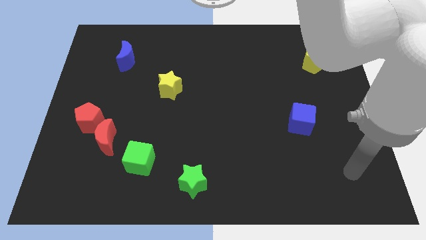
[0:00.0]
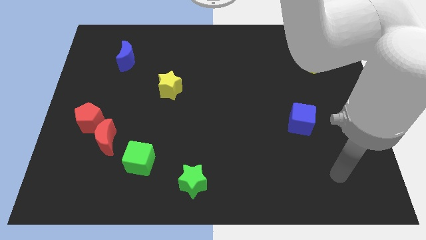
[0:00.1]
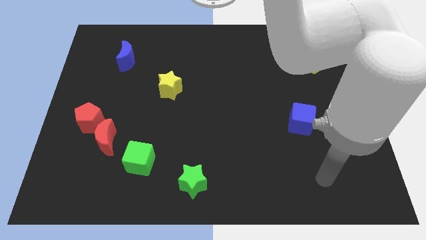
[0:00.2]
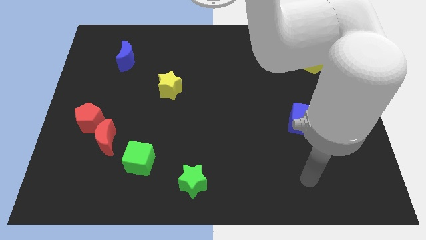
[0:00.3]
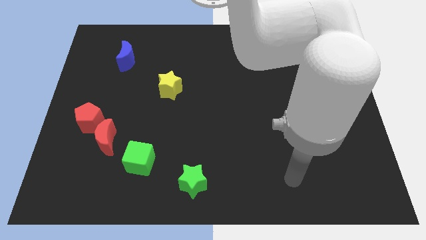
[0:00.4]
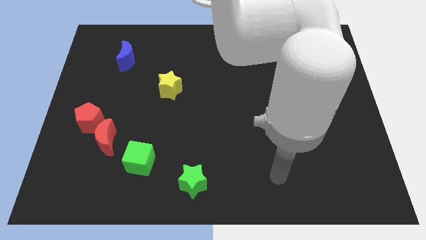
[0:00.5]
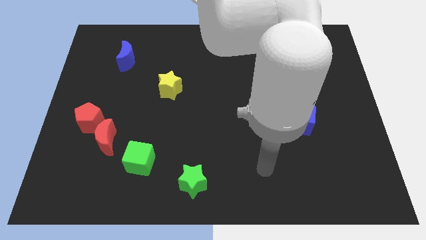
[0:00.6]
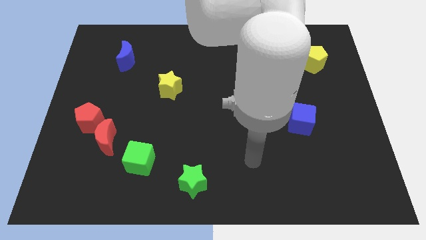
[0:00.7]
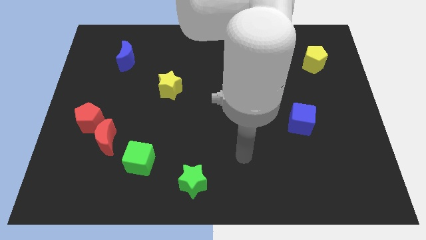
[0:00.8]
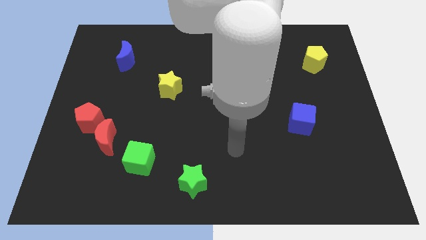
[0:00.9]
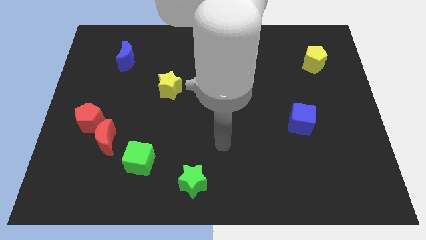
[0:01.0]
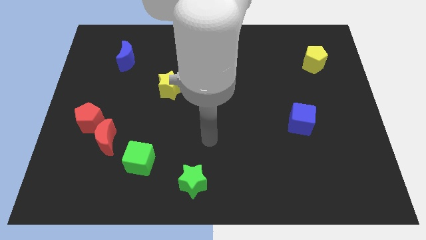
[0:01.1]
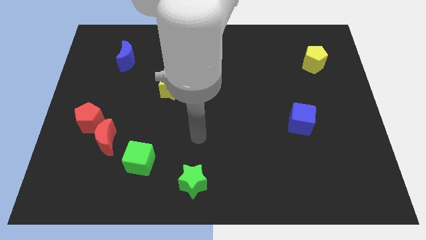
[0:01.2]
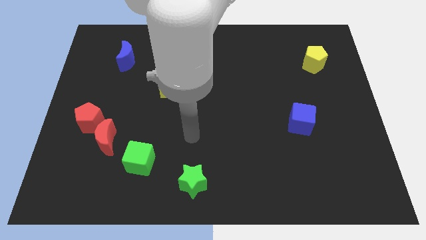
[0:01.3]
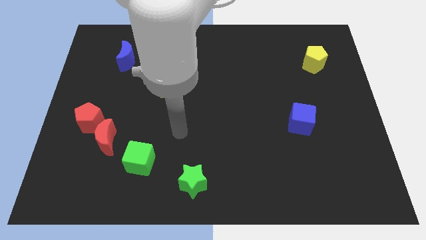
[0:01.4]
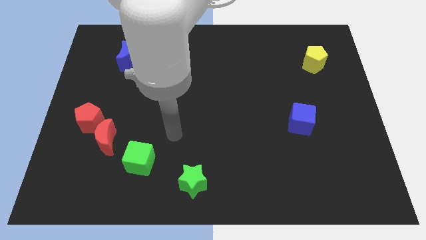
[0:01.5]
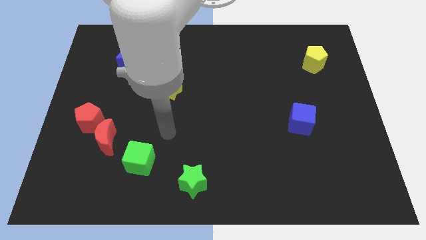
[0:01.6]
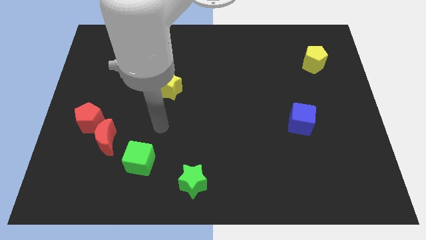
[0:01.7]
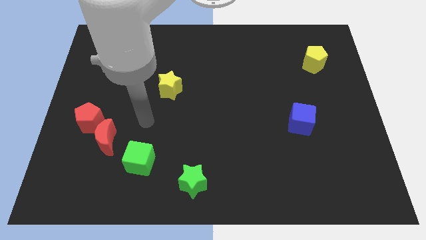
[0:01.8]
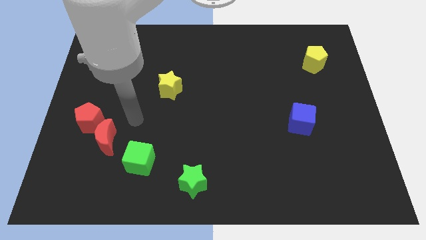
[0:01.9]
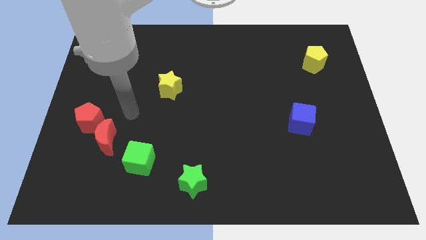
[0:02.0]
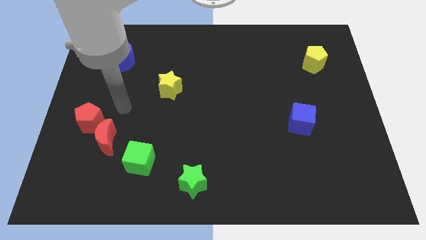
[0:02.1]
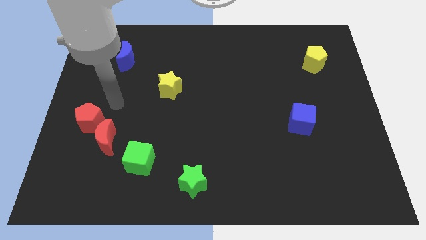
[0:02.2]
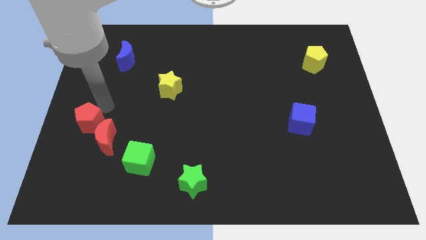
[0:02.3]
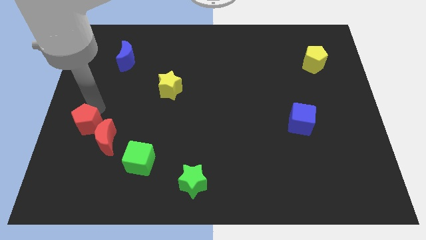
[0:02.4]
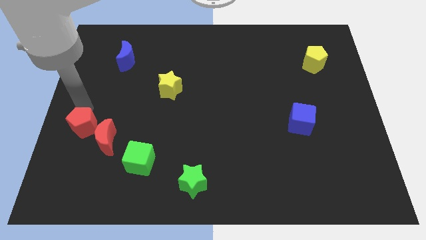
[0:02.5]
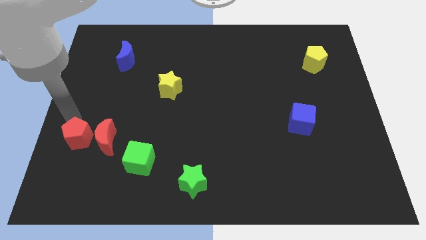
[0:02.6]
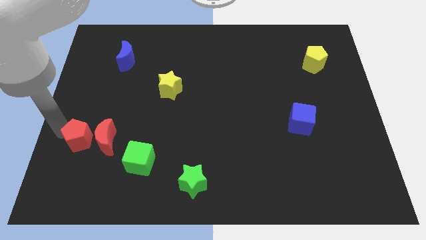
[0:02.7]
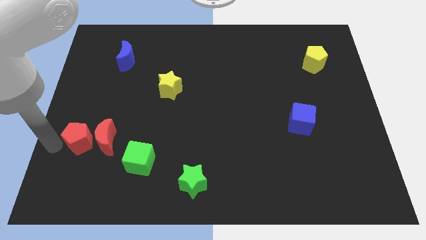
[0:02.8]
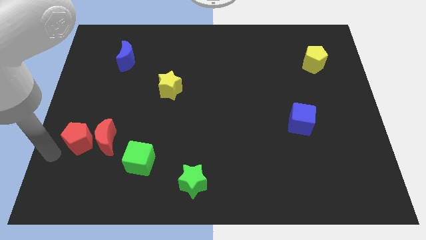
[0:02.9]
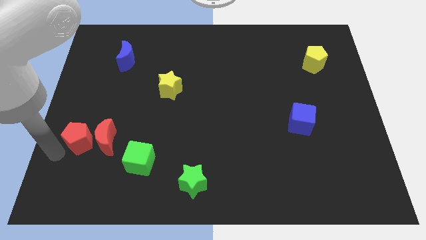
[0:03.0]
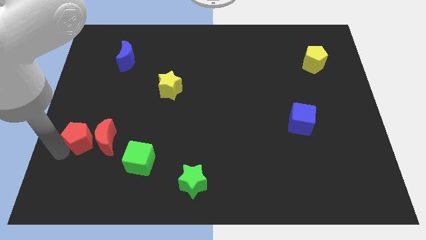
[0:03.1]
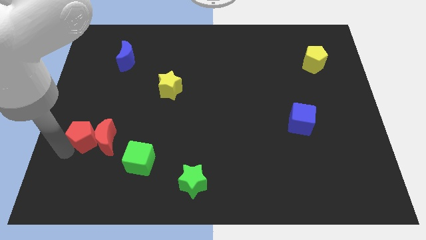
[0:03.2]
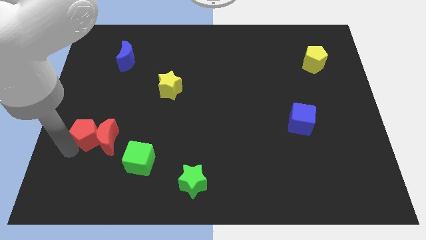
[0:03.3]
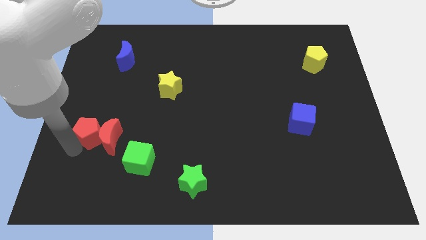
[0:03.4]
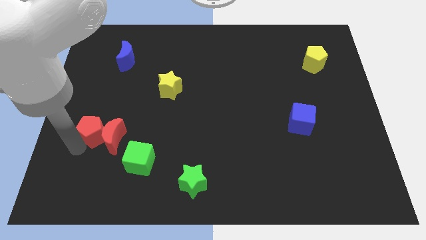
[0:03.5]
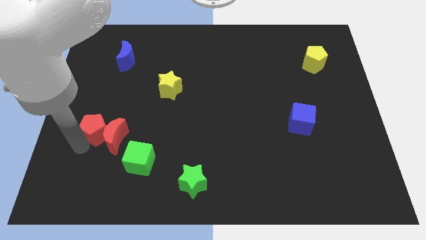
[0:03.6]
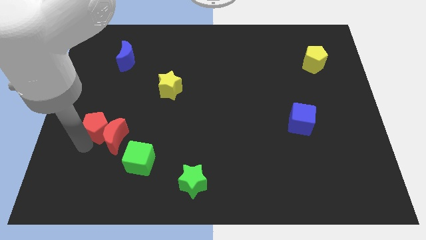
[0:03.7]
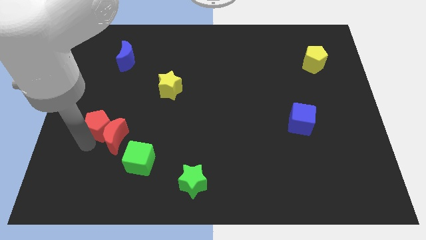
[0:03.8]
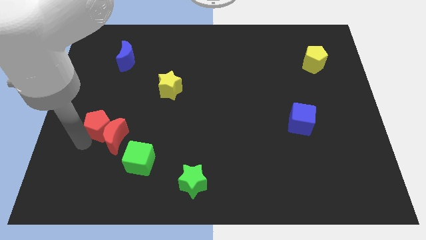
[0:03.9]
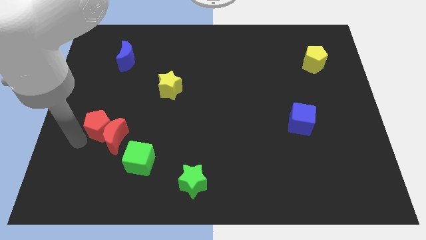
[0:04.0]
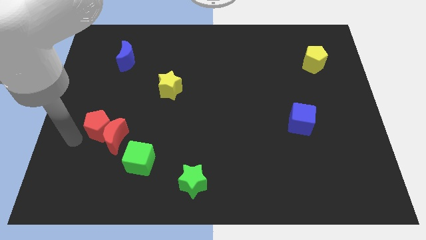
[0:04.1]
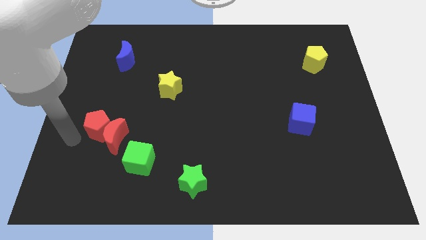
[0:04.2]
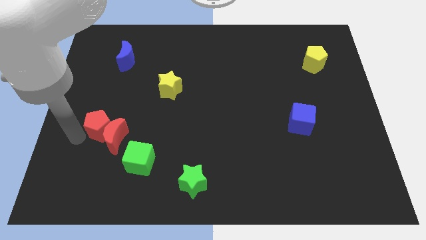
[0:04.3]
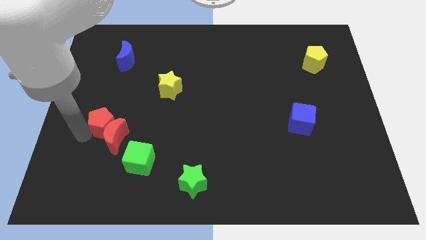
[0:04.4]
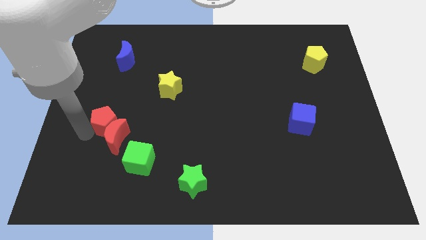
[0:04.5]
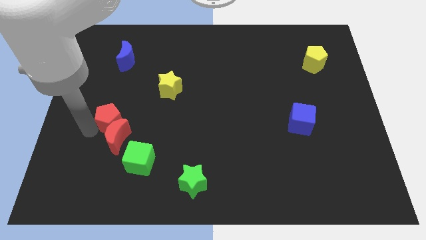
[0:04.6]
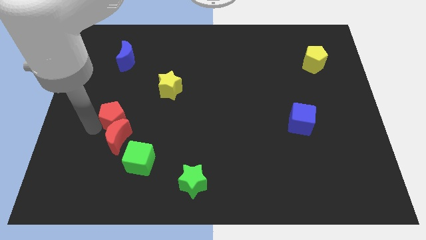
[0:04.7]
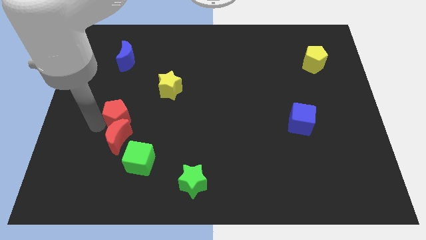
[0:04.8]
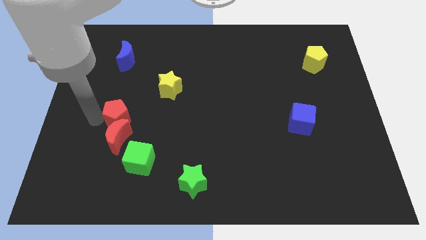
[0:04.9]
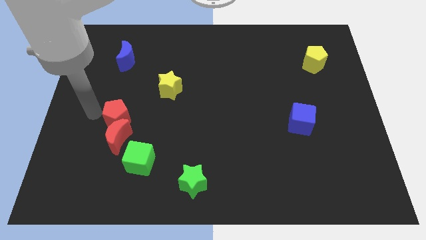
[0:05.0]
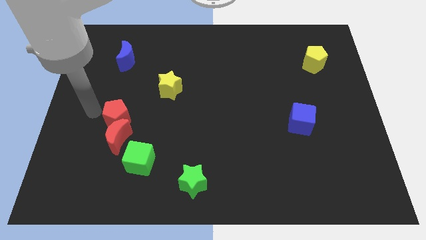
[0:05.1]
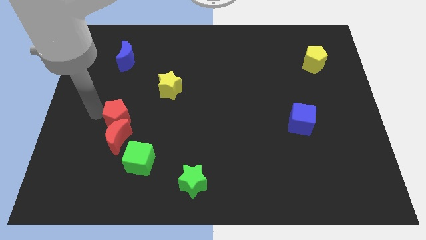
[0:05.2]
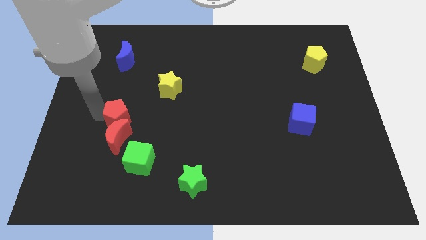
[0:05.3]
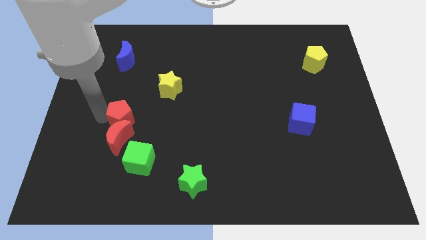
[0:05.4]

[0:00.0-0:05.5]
slightly move the red pentagon to the right

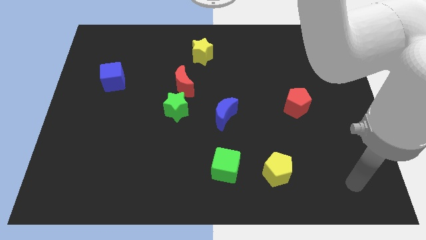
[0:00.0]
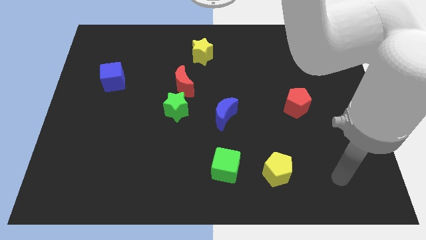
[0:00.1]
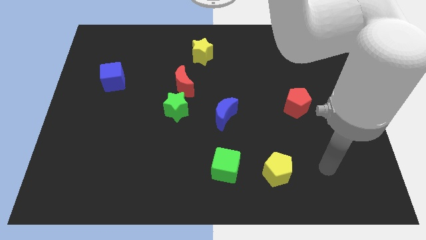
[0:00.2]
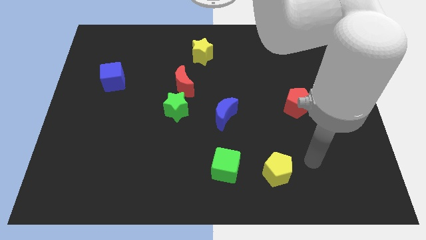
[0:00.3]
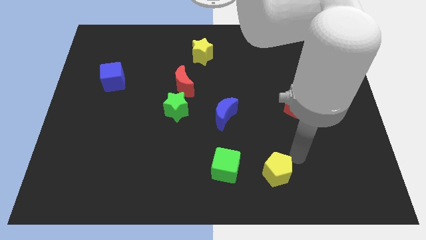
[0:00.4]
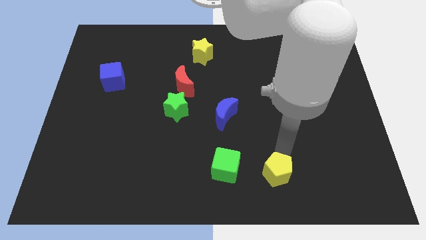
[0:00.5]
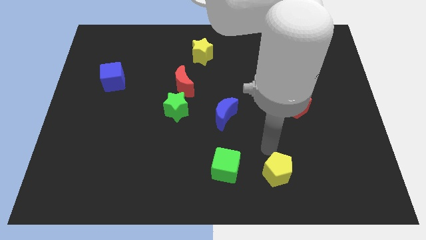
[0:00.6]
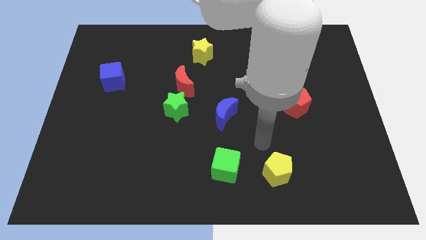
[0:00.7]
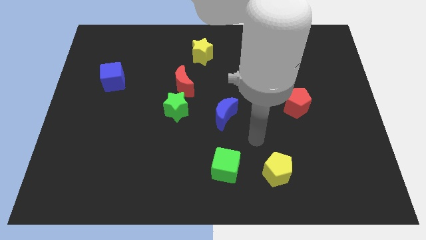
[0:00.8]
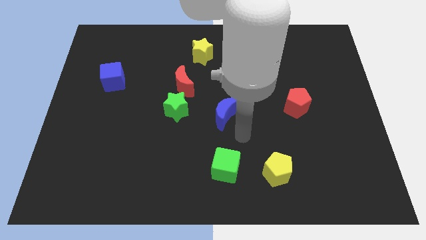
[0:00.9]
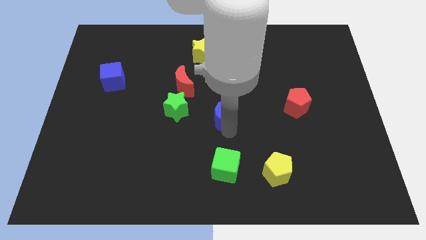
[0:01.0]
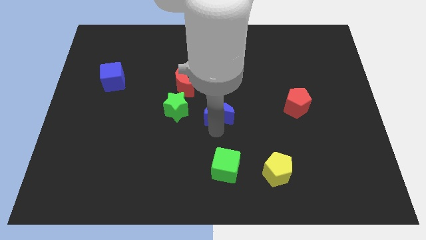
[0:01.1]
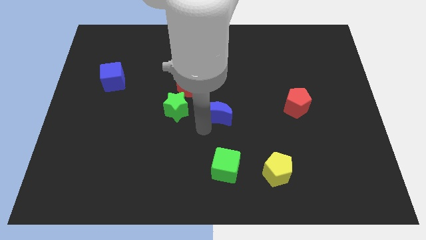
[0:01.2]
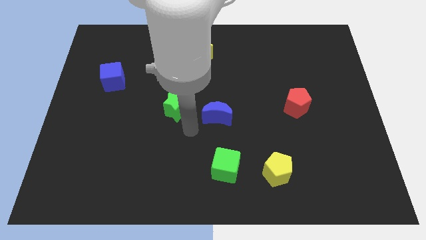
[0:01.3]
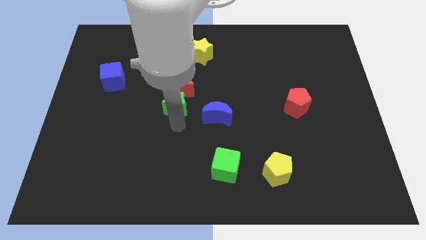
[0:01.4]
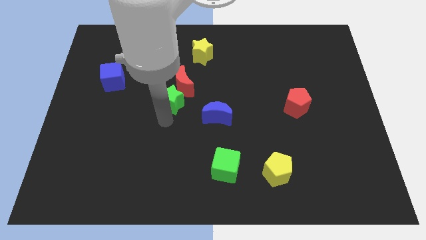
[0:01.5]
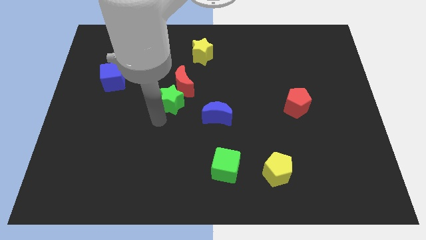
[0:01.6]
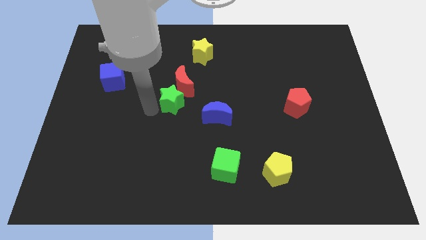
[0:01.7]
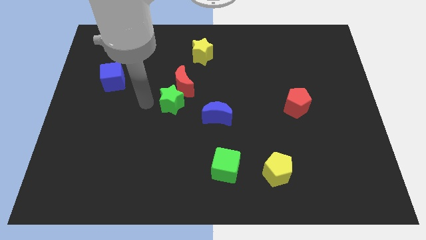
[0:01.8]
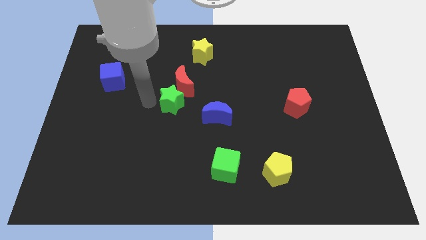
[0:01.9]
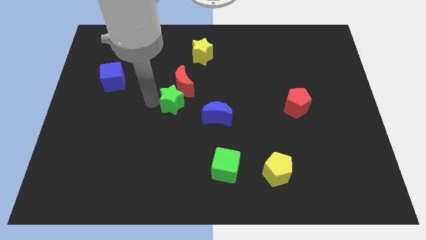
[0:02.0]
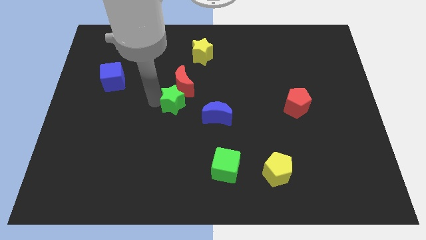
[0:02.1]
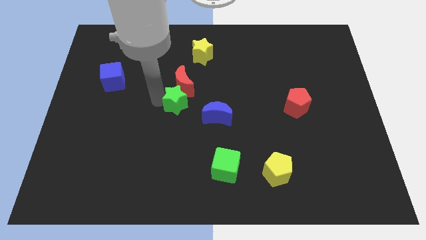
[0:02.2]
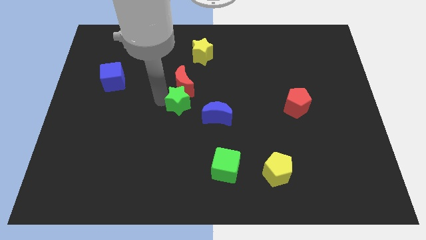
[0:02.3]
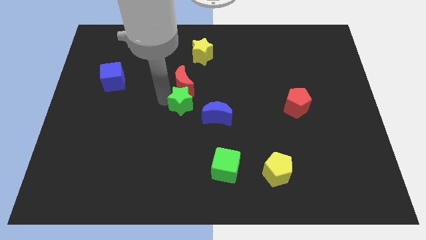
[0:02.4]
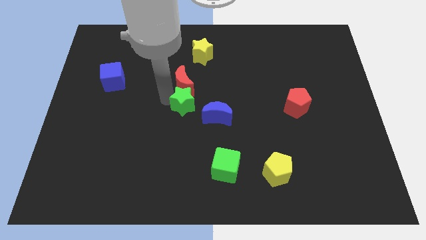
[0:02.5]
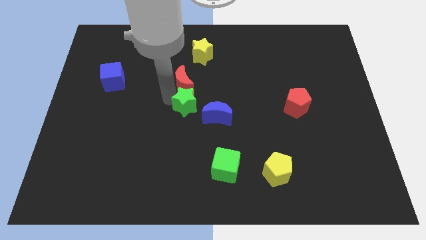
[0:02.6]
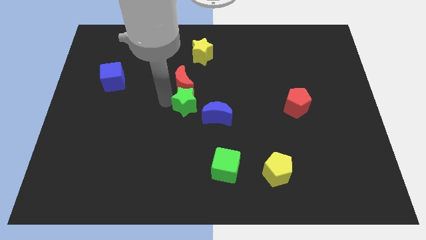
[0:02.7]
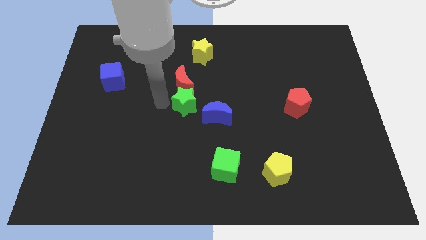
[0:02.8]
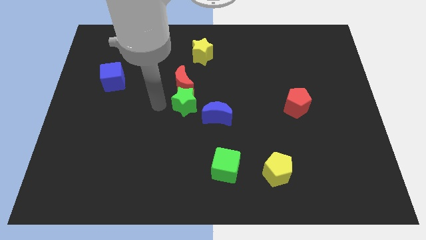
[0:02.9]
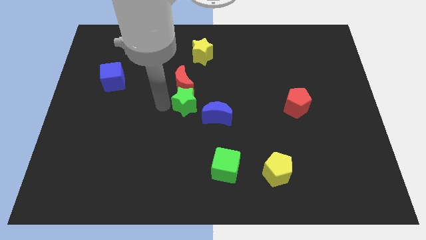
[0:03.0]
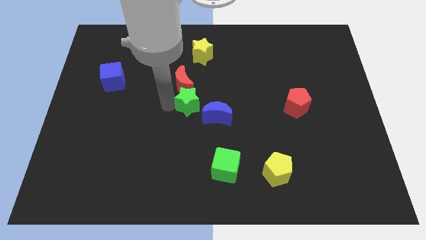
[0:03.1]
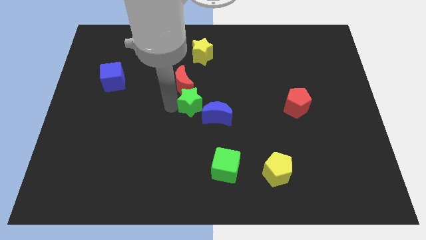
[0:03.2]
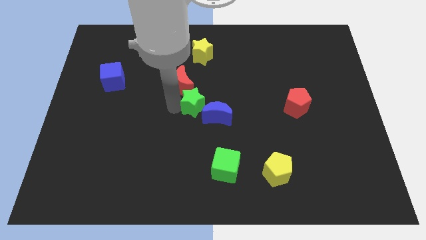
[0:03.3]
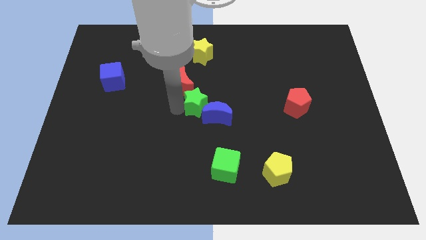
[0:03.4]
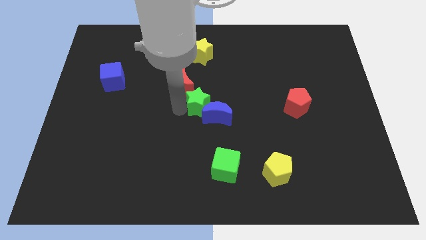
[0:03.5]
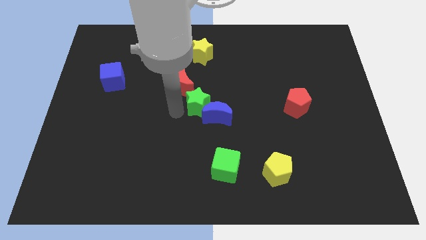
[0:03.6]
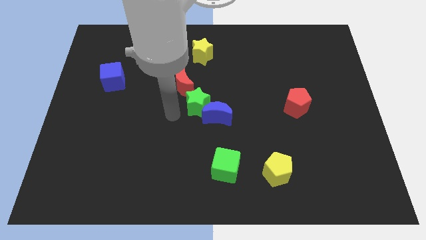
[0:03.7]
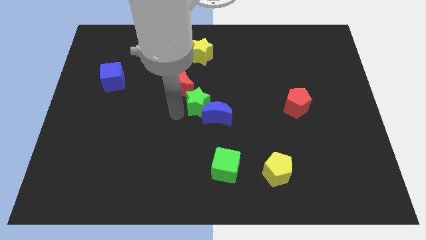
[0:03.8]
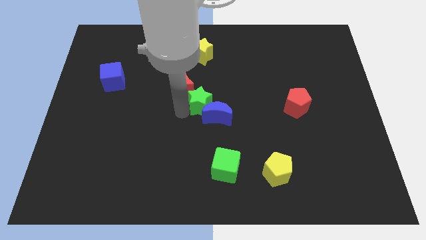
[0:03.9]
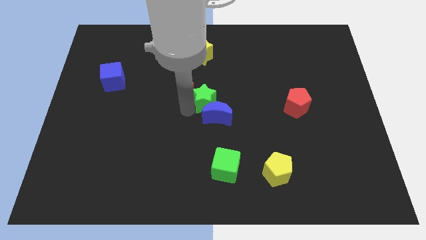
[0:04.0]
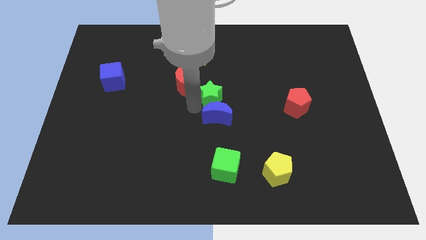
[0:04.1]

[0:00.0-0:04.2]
slightly push the green star to the right
